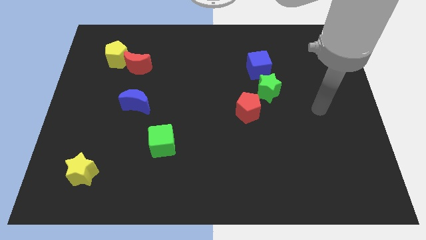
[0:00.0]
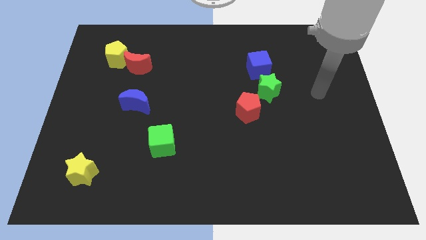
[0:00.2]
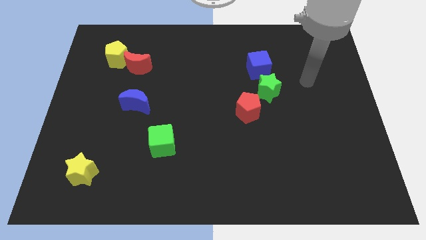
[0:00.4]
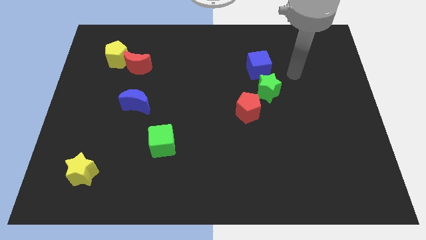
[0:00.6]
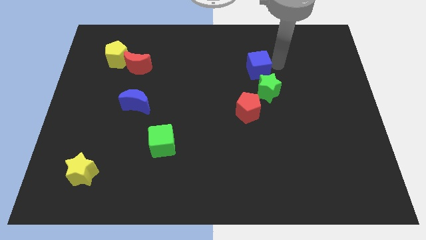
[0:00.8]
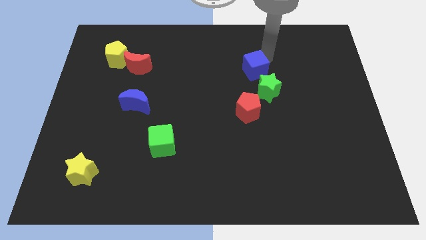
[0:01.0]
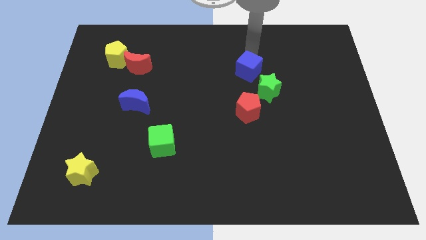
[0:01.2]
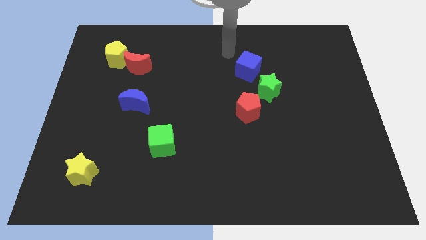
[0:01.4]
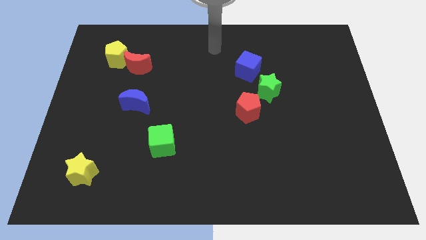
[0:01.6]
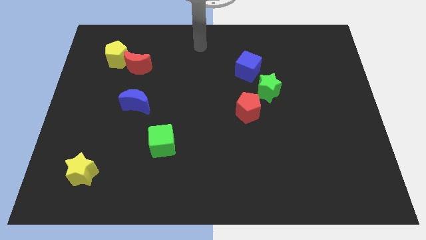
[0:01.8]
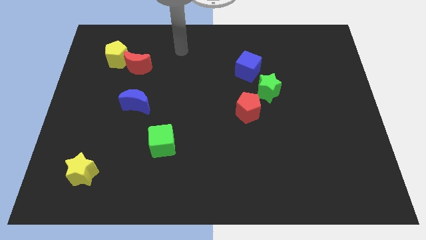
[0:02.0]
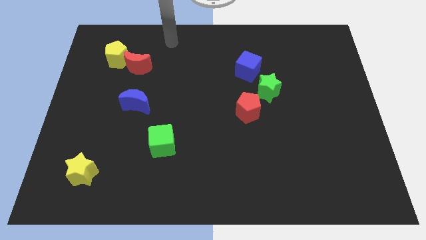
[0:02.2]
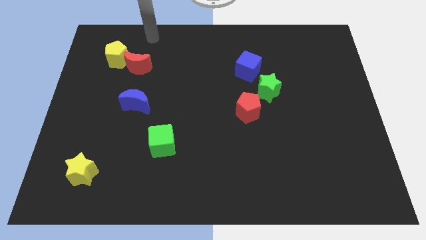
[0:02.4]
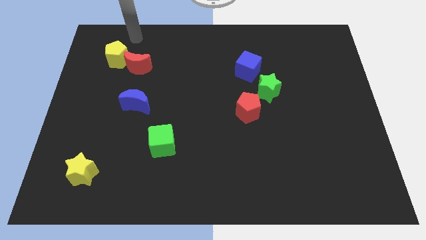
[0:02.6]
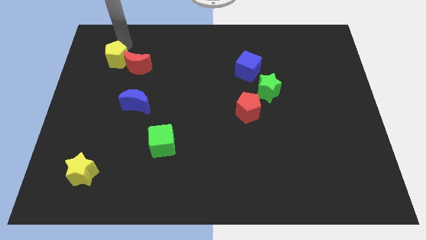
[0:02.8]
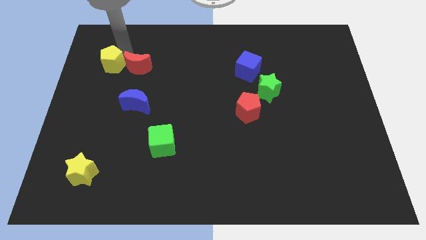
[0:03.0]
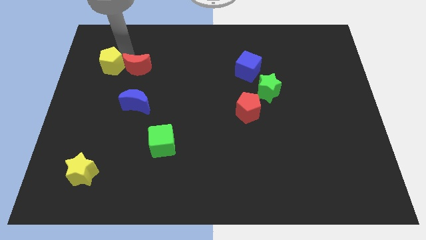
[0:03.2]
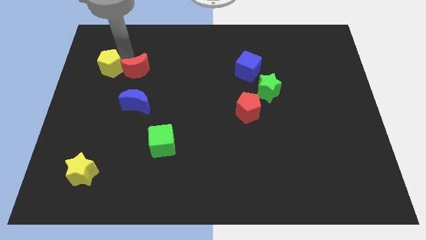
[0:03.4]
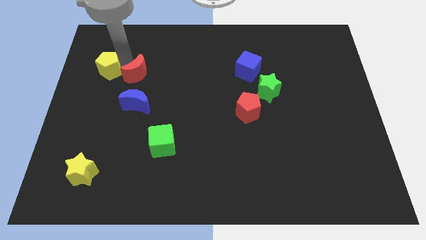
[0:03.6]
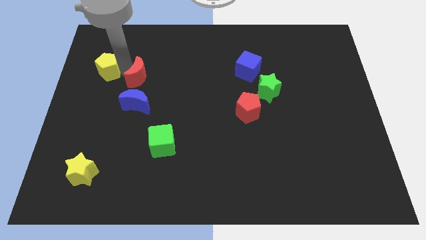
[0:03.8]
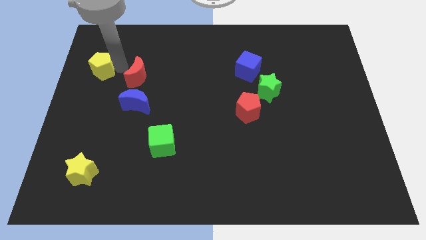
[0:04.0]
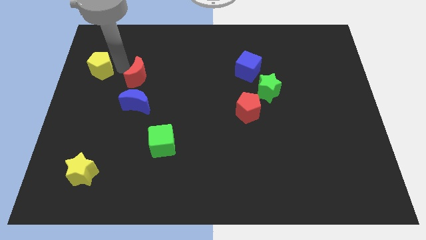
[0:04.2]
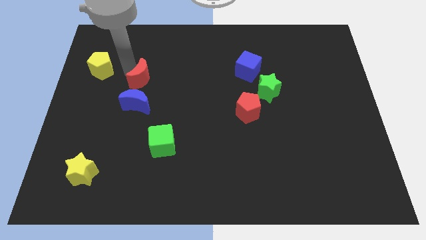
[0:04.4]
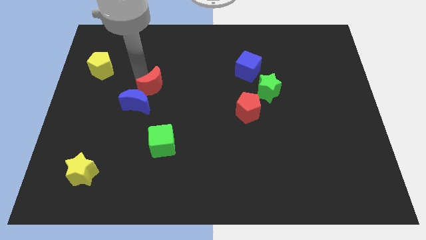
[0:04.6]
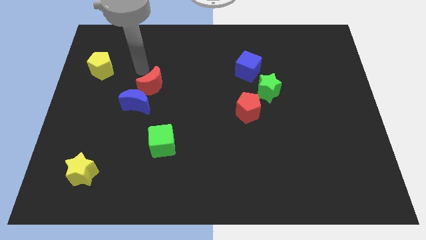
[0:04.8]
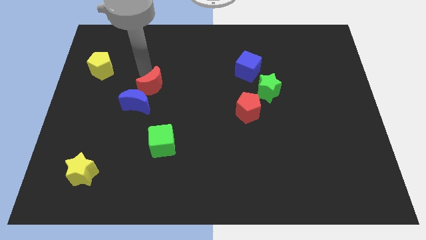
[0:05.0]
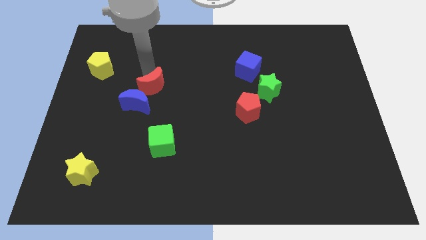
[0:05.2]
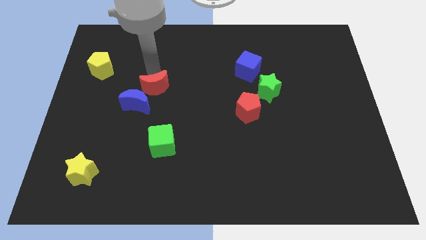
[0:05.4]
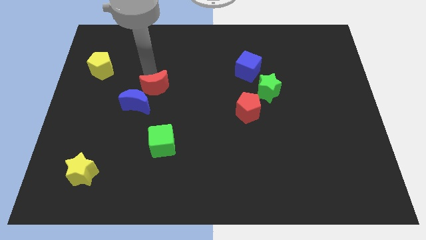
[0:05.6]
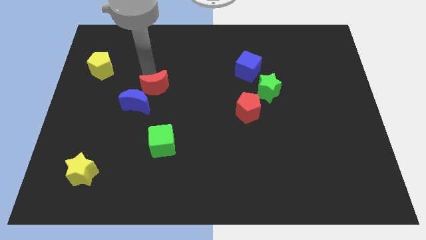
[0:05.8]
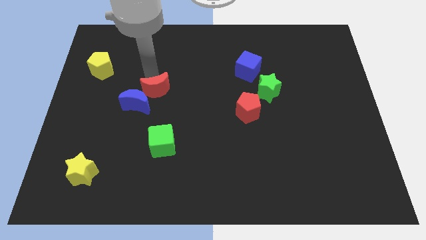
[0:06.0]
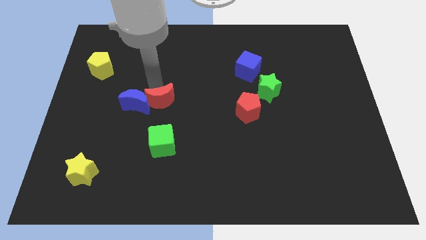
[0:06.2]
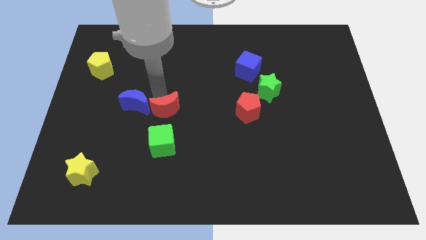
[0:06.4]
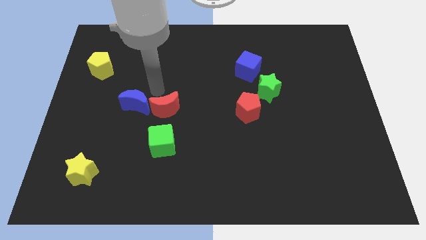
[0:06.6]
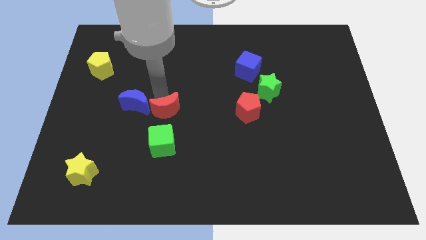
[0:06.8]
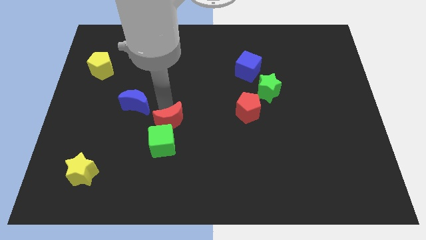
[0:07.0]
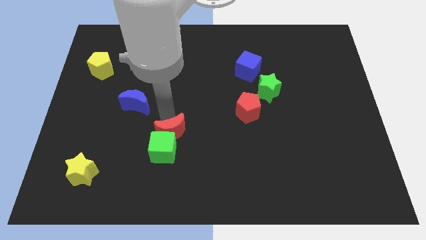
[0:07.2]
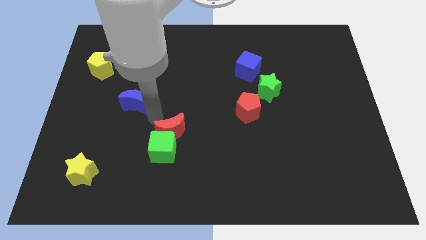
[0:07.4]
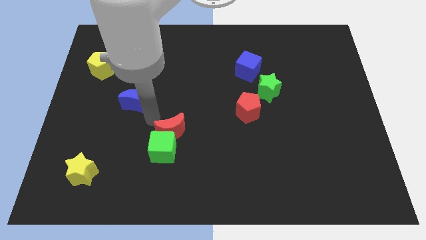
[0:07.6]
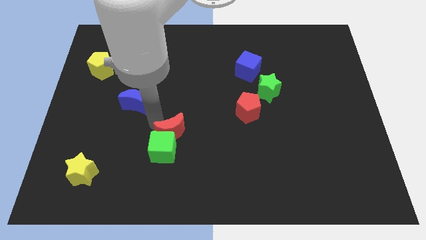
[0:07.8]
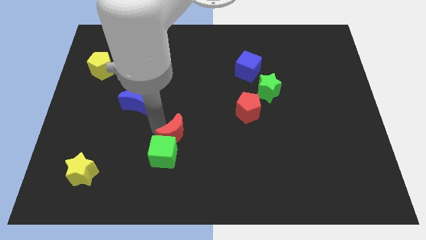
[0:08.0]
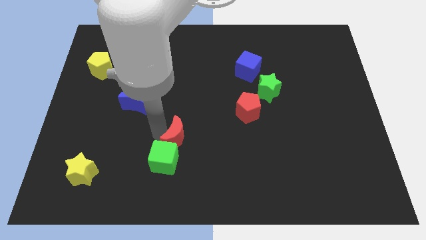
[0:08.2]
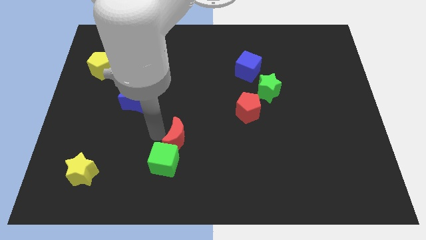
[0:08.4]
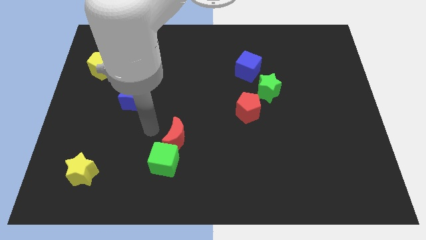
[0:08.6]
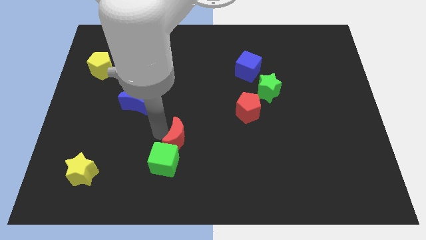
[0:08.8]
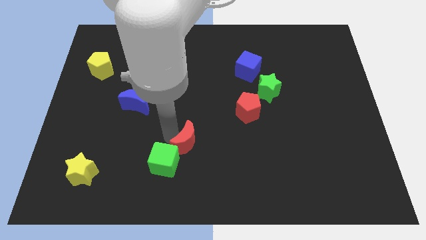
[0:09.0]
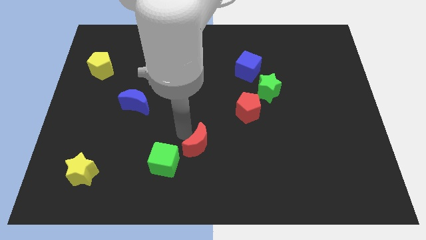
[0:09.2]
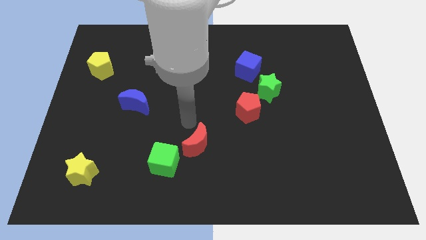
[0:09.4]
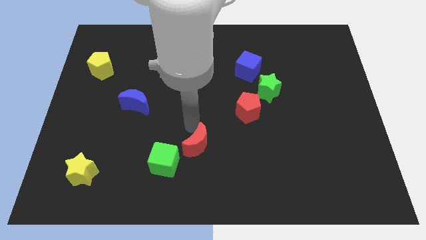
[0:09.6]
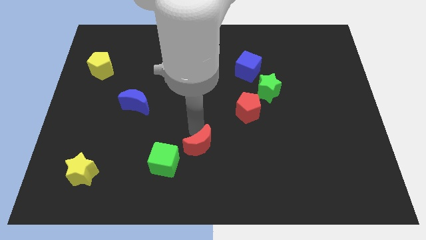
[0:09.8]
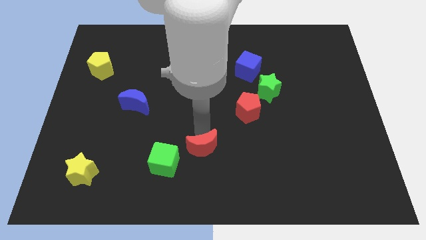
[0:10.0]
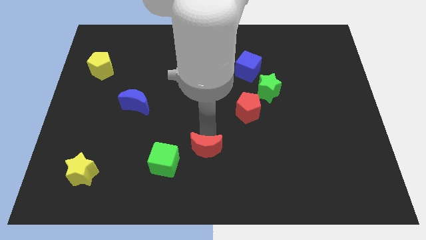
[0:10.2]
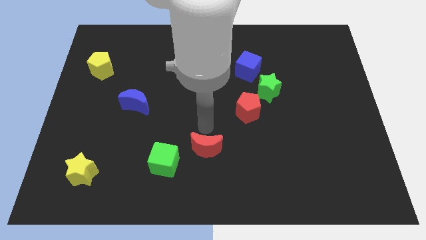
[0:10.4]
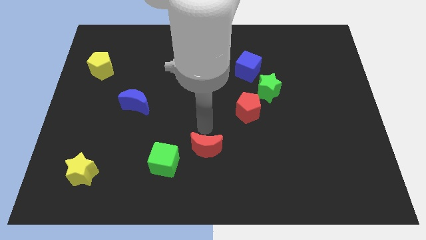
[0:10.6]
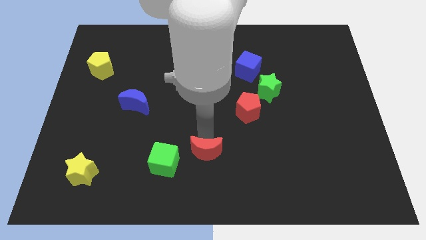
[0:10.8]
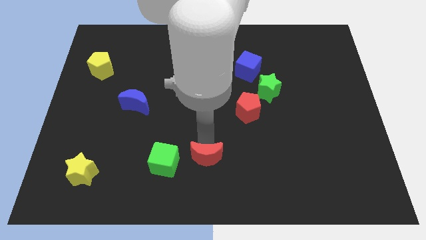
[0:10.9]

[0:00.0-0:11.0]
put the red moon to the bottom

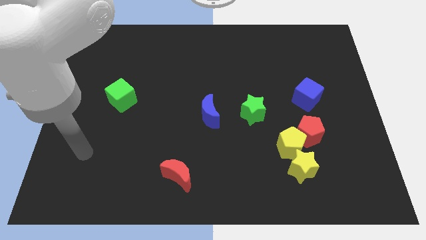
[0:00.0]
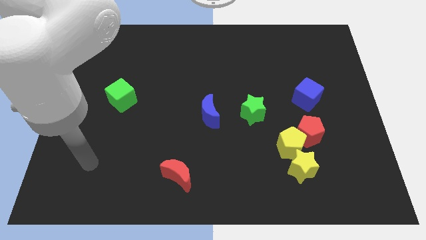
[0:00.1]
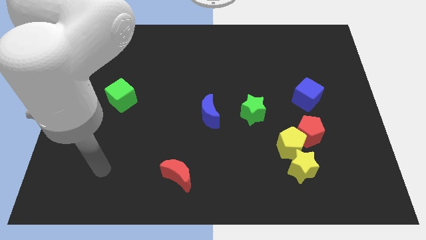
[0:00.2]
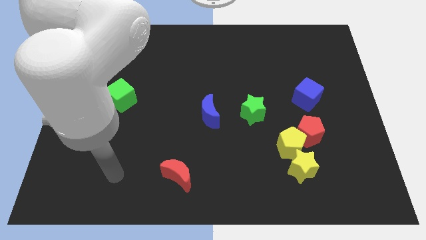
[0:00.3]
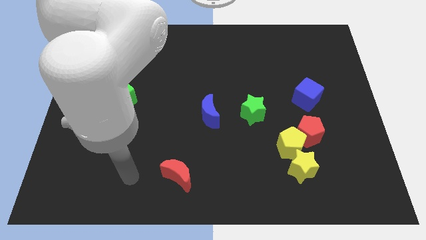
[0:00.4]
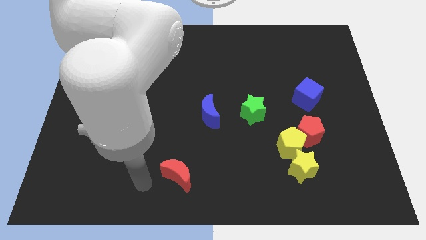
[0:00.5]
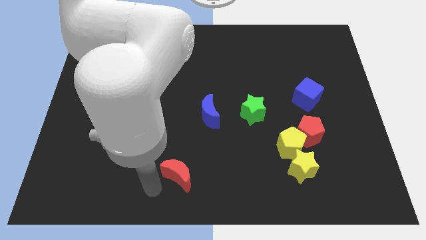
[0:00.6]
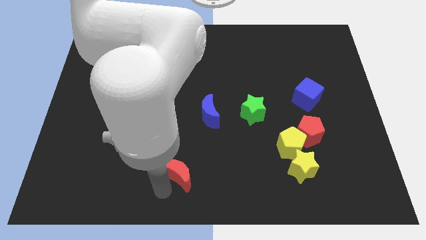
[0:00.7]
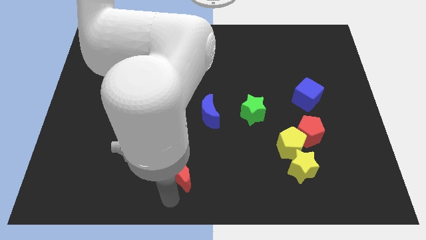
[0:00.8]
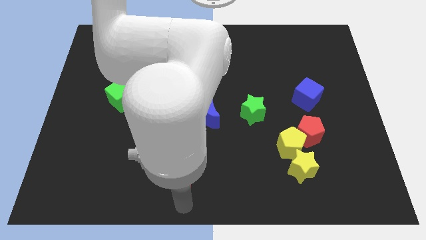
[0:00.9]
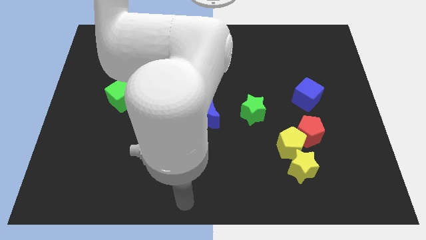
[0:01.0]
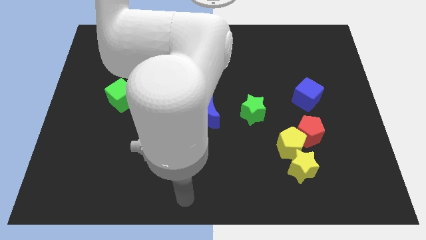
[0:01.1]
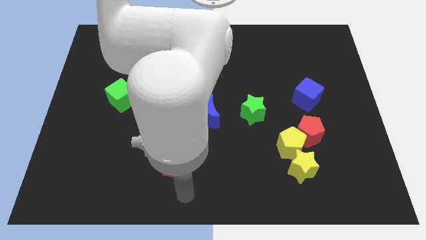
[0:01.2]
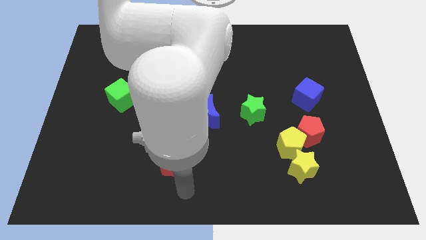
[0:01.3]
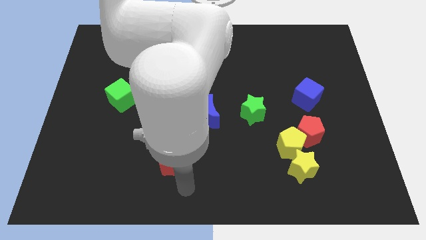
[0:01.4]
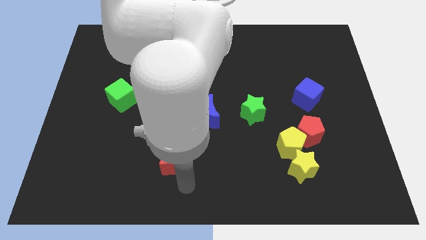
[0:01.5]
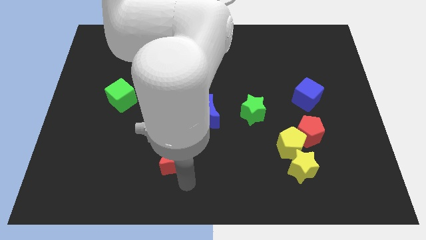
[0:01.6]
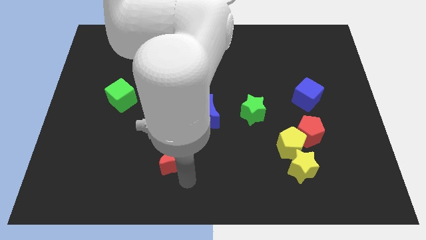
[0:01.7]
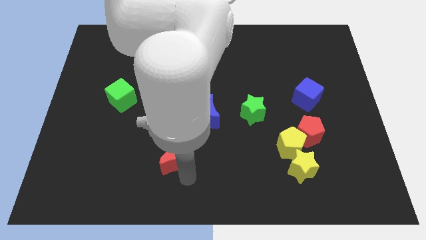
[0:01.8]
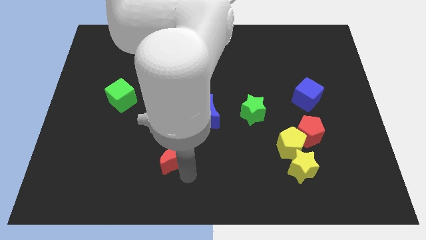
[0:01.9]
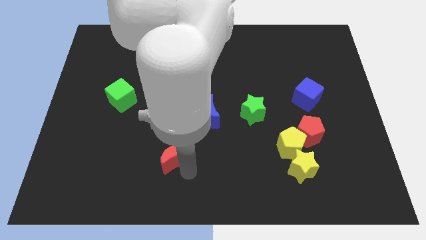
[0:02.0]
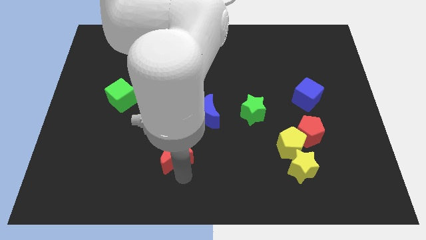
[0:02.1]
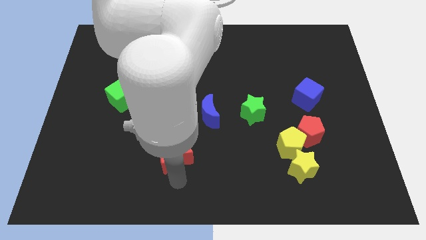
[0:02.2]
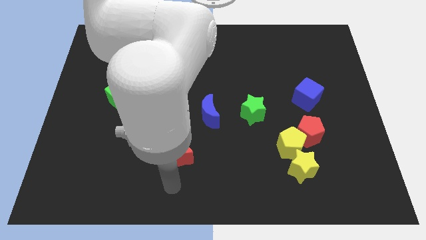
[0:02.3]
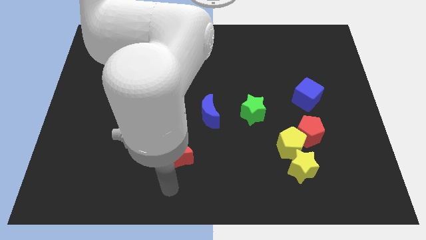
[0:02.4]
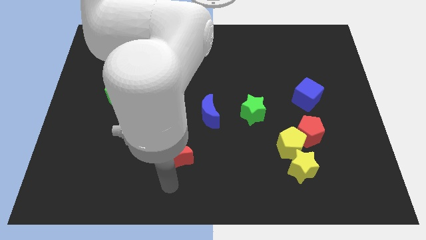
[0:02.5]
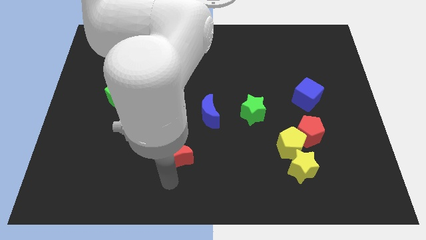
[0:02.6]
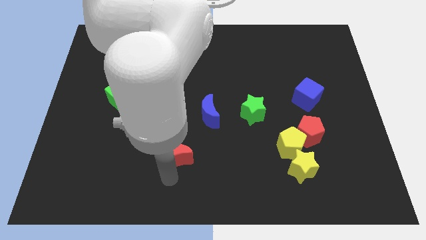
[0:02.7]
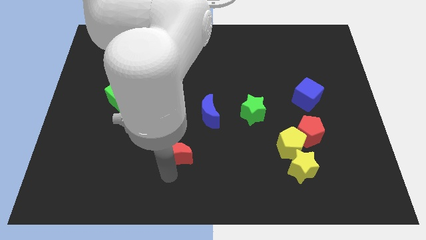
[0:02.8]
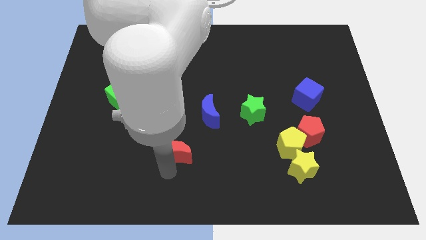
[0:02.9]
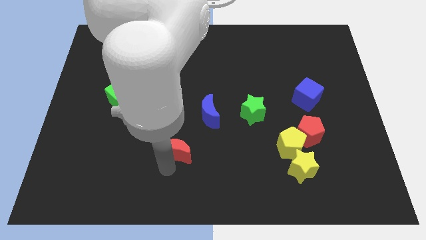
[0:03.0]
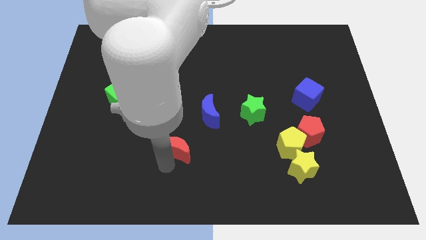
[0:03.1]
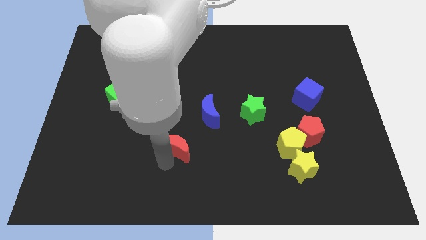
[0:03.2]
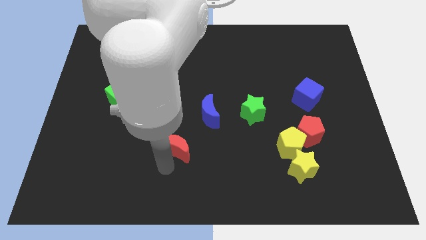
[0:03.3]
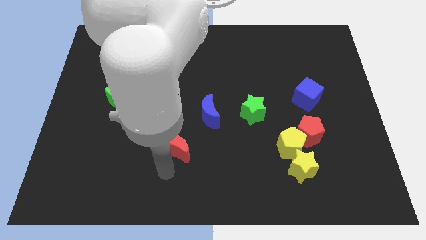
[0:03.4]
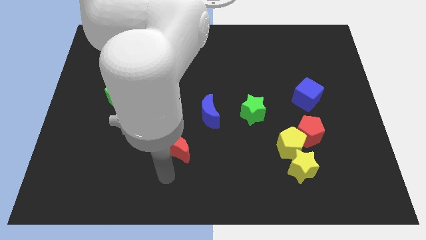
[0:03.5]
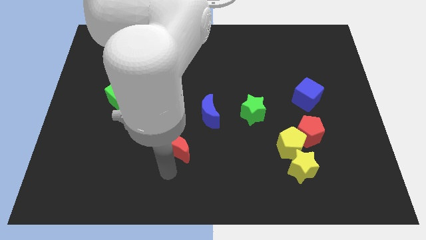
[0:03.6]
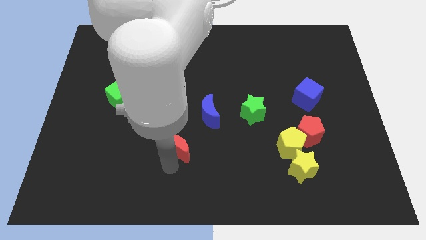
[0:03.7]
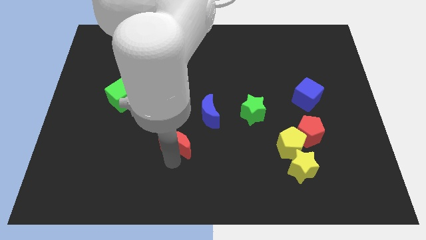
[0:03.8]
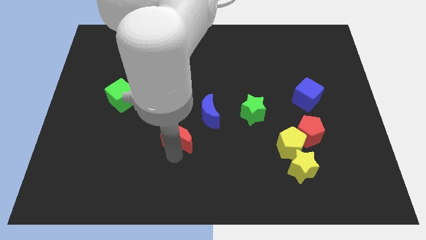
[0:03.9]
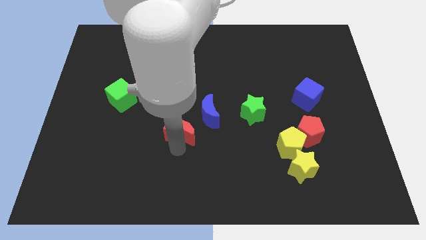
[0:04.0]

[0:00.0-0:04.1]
slide the red moon to the center of the board
